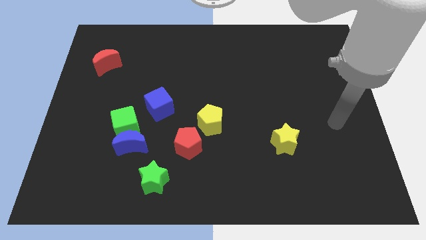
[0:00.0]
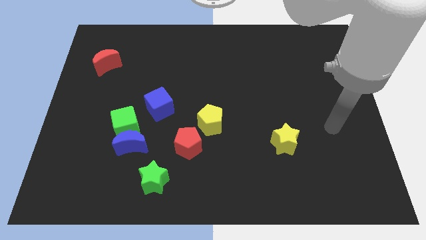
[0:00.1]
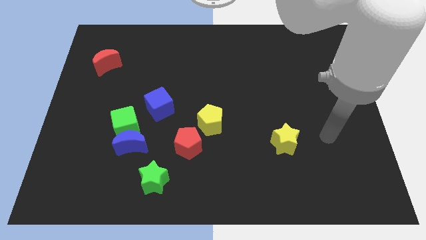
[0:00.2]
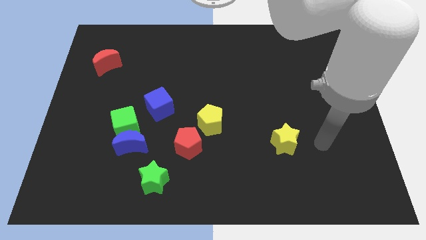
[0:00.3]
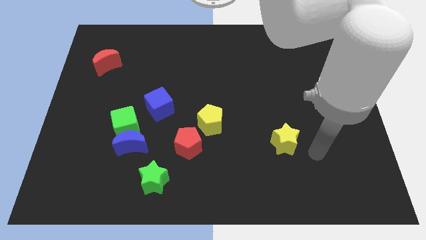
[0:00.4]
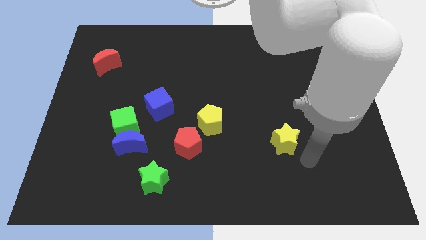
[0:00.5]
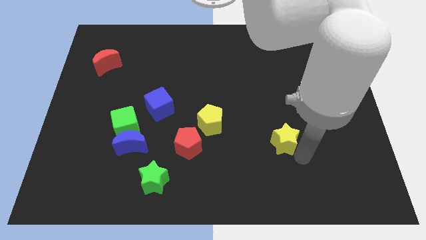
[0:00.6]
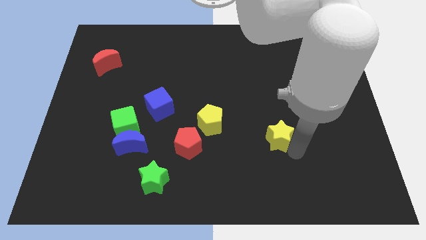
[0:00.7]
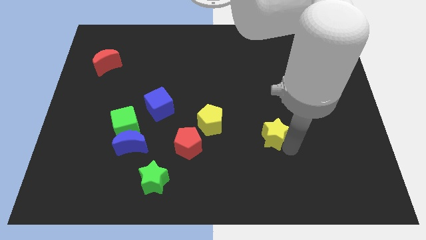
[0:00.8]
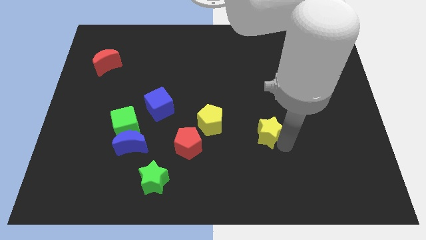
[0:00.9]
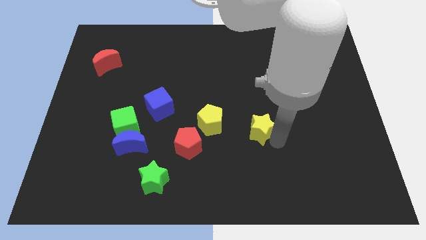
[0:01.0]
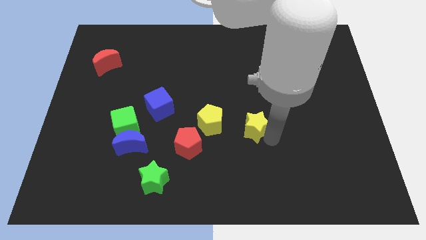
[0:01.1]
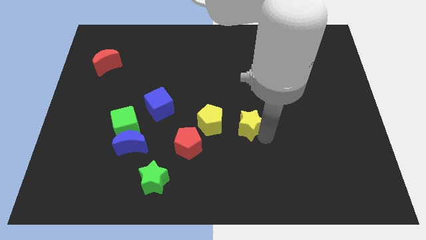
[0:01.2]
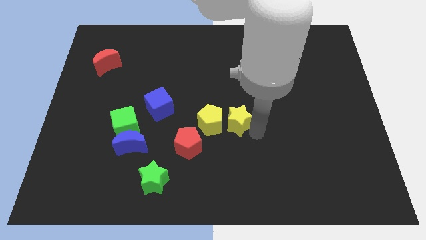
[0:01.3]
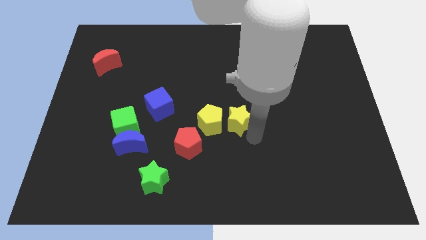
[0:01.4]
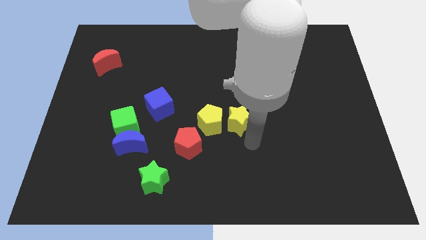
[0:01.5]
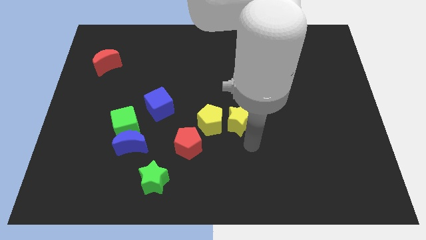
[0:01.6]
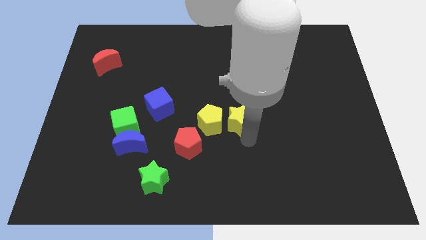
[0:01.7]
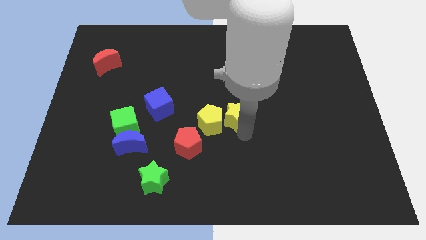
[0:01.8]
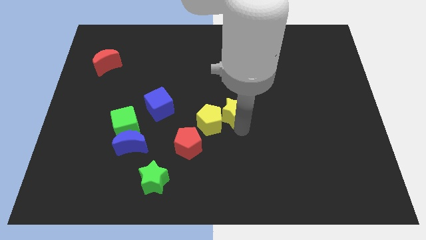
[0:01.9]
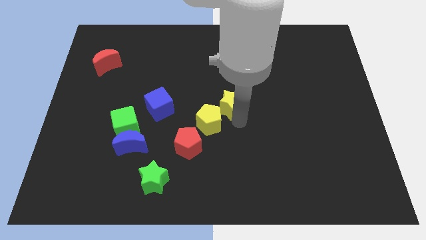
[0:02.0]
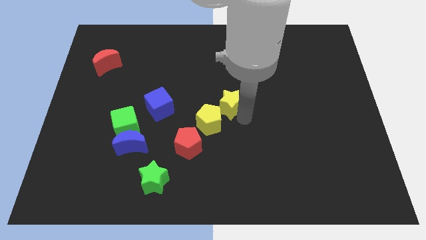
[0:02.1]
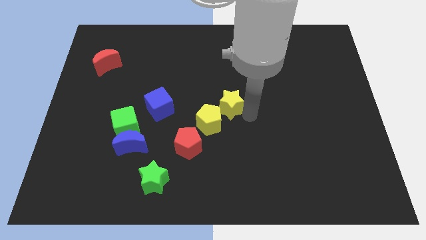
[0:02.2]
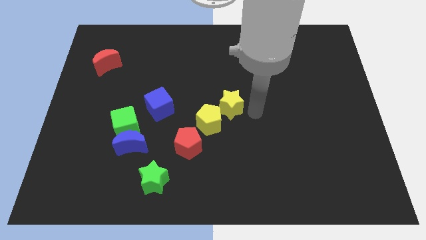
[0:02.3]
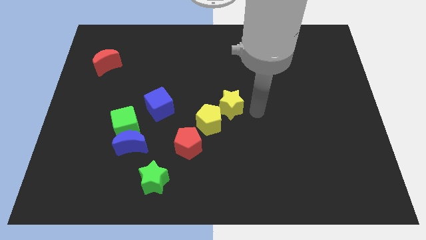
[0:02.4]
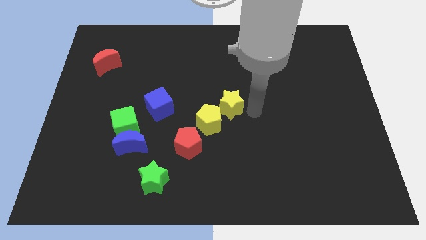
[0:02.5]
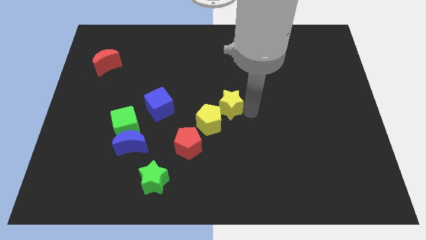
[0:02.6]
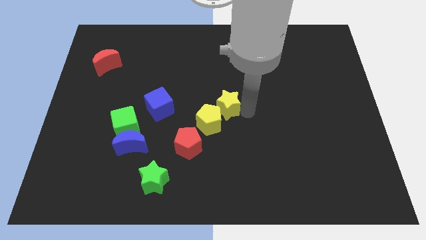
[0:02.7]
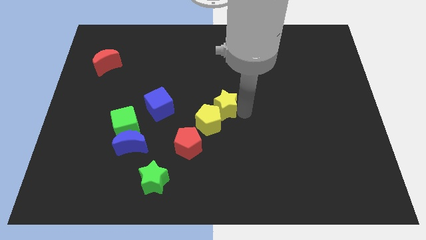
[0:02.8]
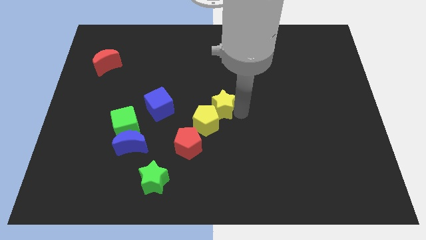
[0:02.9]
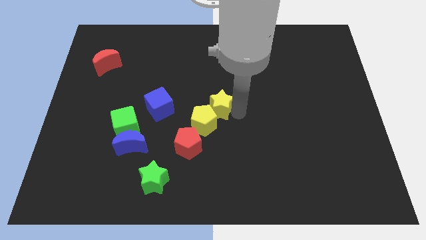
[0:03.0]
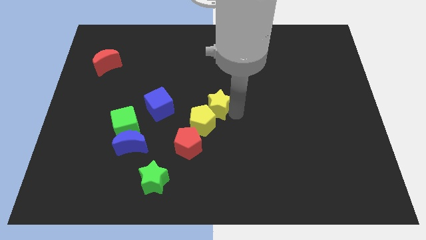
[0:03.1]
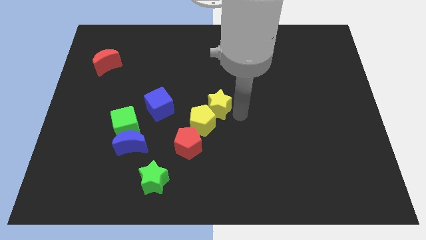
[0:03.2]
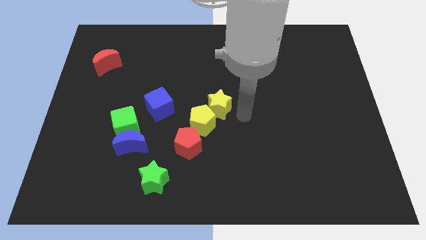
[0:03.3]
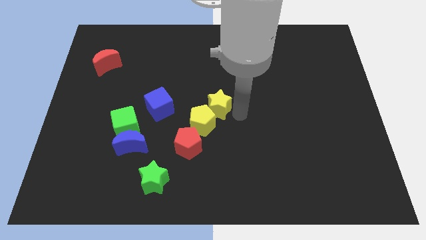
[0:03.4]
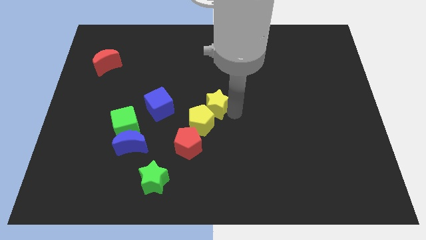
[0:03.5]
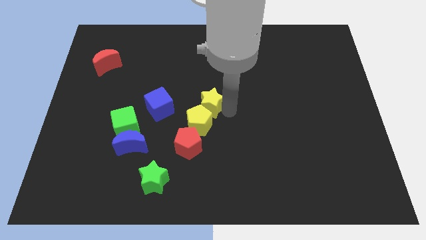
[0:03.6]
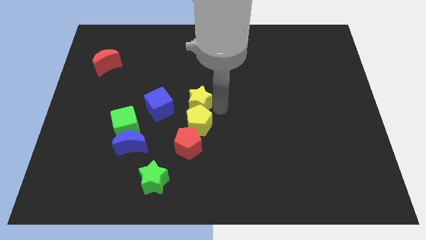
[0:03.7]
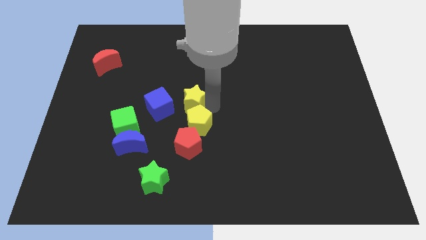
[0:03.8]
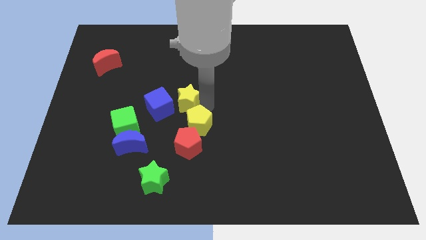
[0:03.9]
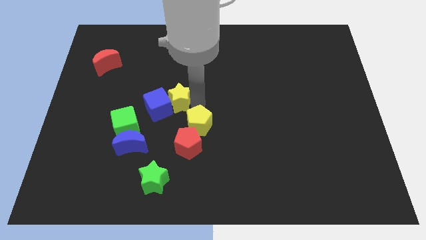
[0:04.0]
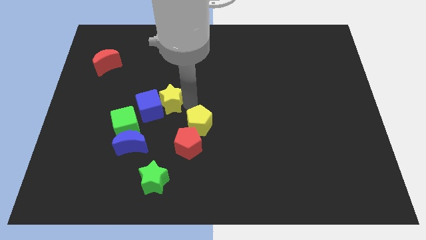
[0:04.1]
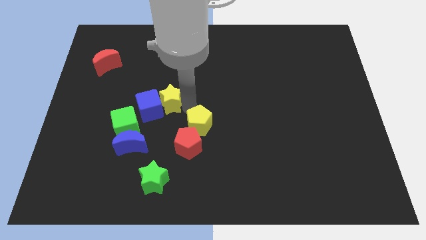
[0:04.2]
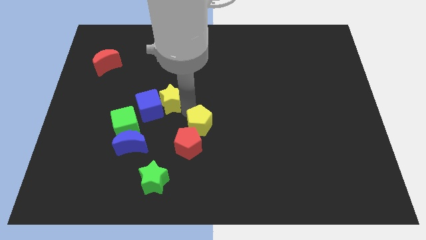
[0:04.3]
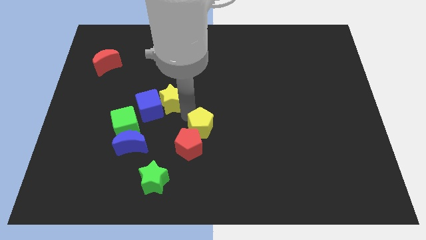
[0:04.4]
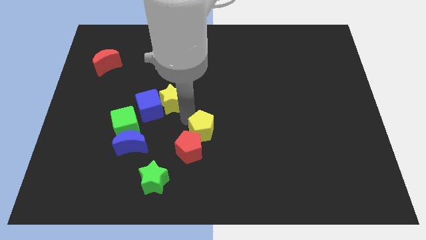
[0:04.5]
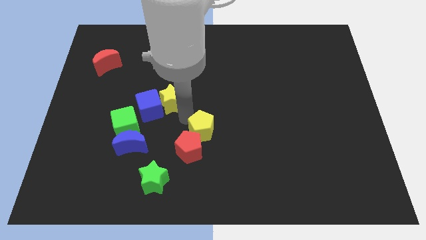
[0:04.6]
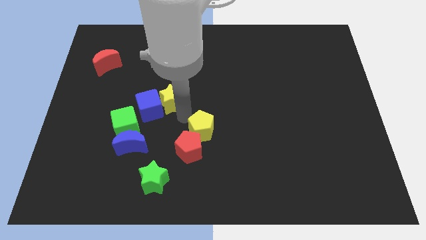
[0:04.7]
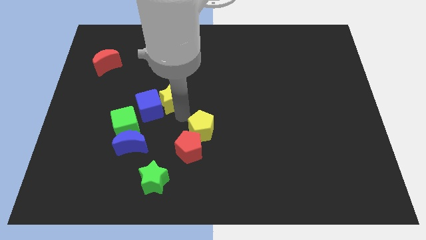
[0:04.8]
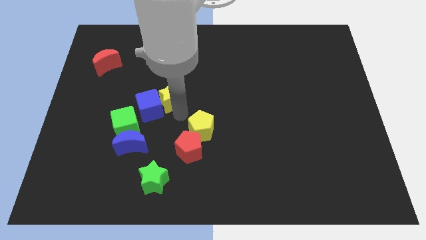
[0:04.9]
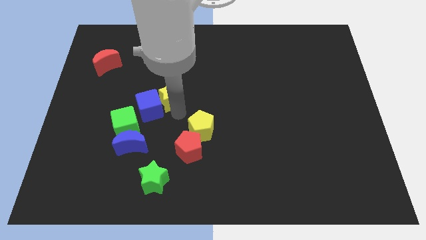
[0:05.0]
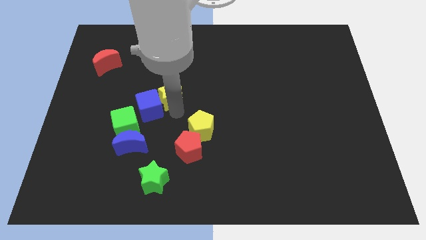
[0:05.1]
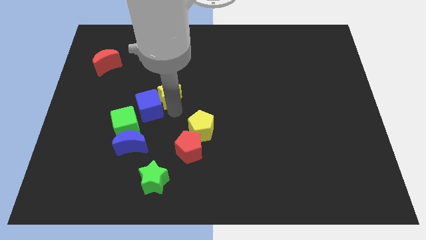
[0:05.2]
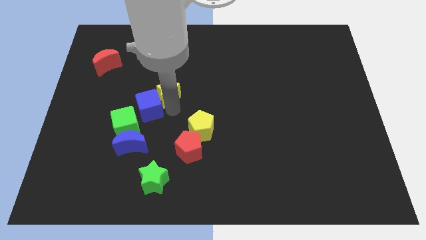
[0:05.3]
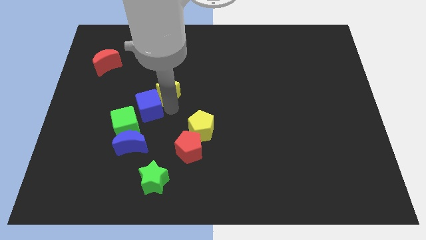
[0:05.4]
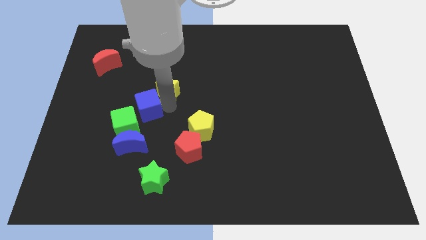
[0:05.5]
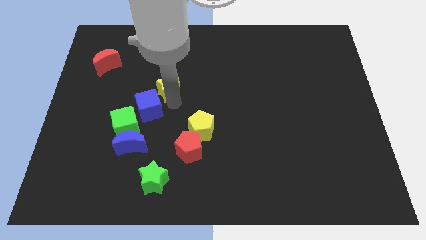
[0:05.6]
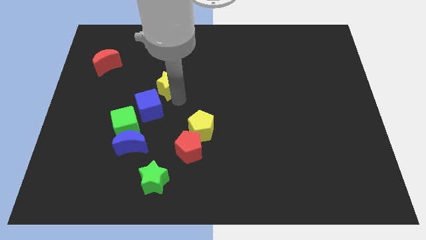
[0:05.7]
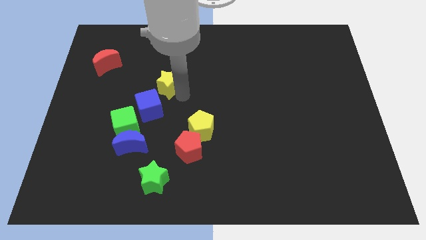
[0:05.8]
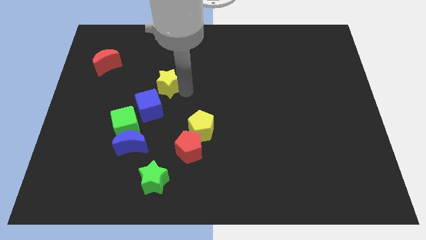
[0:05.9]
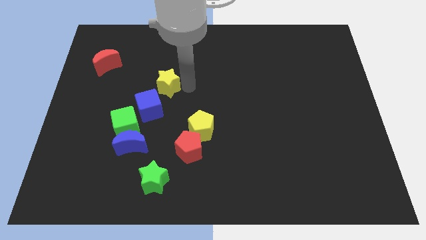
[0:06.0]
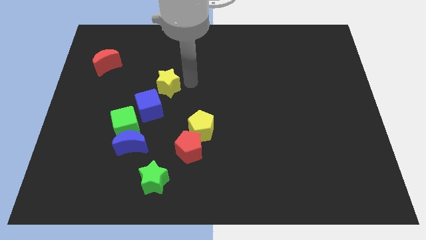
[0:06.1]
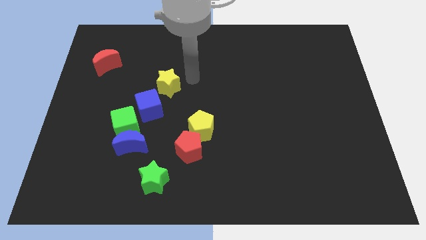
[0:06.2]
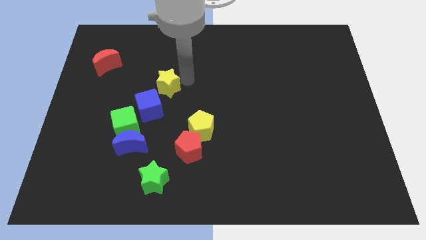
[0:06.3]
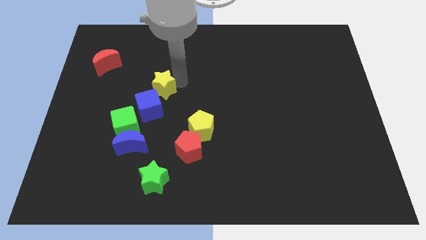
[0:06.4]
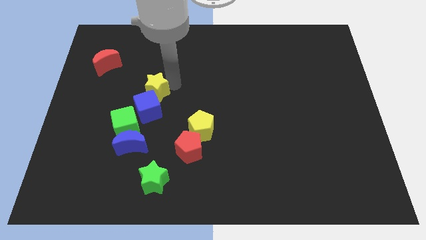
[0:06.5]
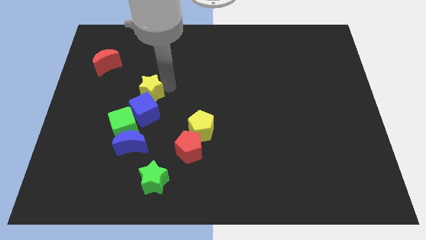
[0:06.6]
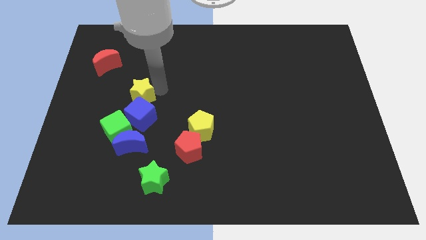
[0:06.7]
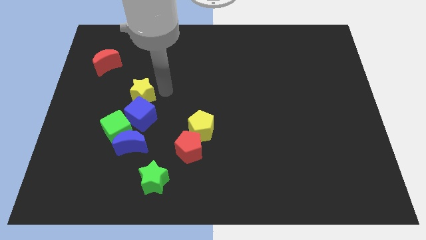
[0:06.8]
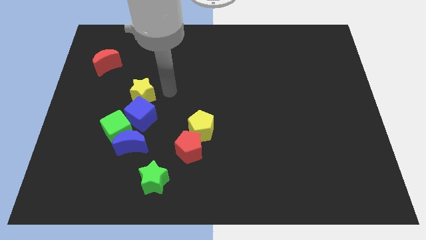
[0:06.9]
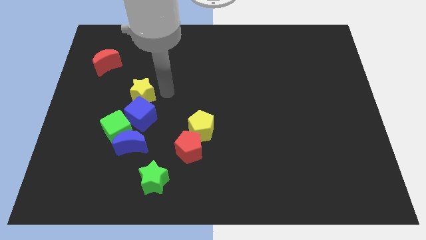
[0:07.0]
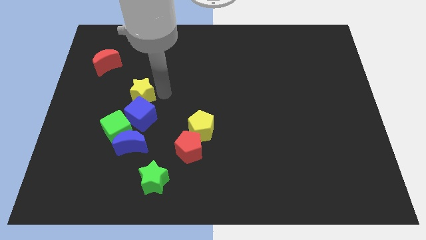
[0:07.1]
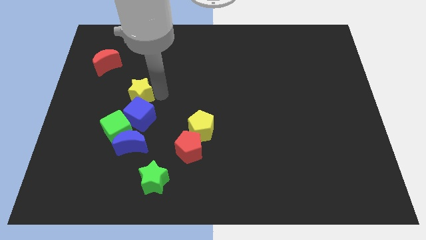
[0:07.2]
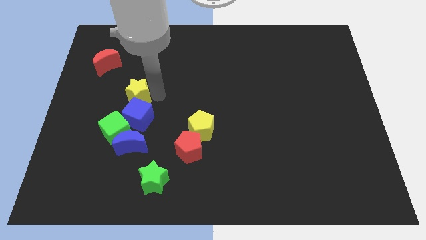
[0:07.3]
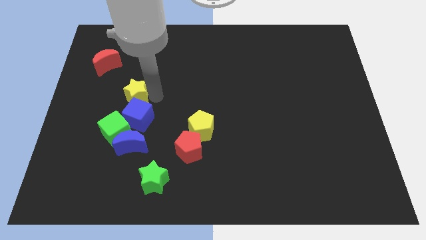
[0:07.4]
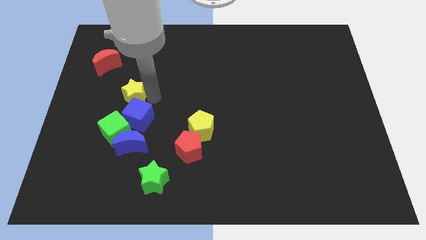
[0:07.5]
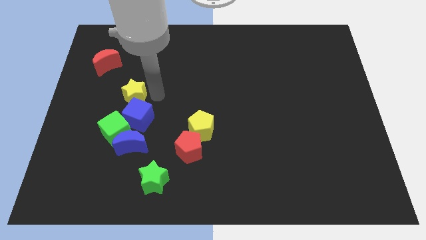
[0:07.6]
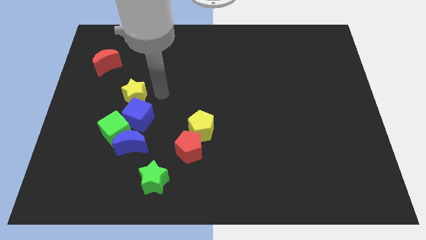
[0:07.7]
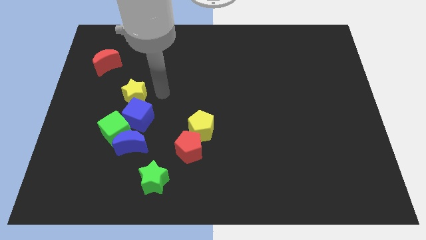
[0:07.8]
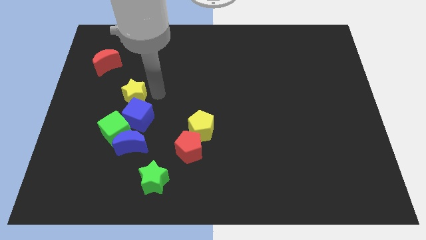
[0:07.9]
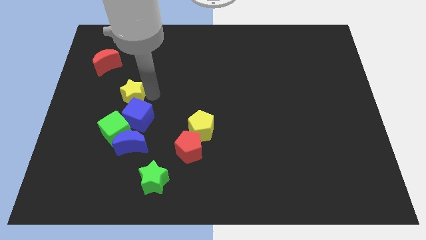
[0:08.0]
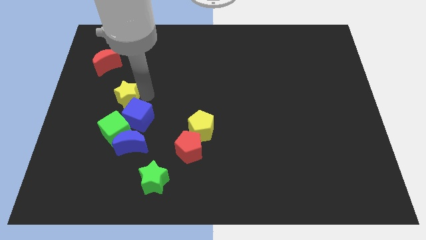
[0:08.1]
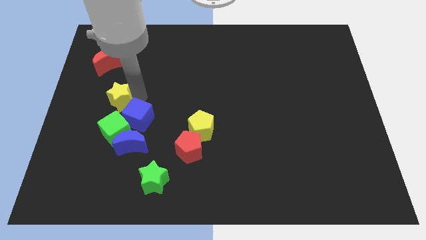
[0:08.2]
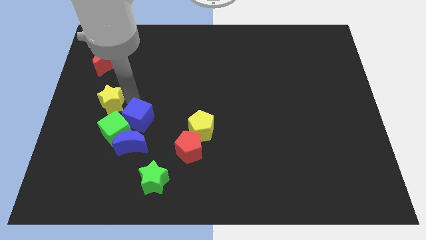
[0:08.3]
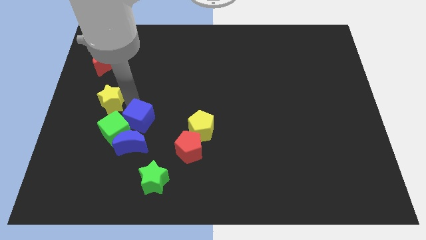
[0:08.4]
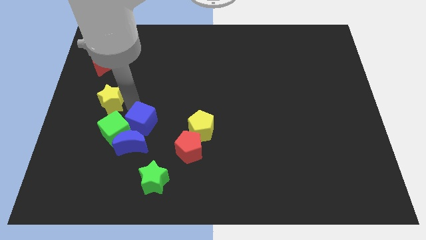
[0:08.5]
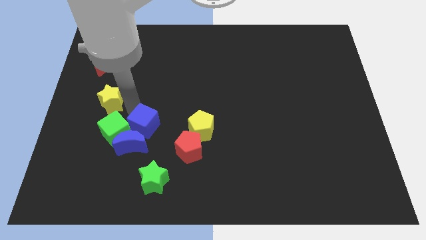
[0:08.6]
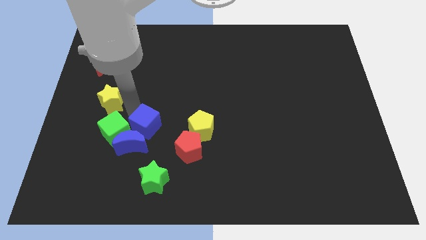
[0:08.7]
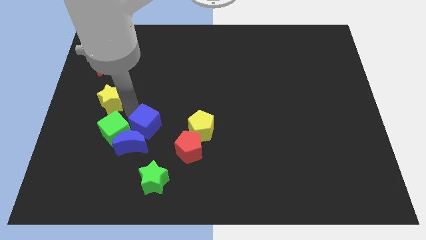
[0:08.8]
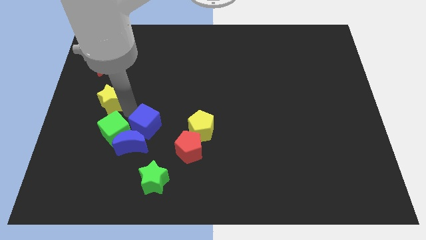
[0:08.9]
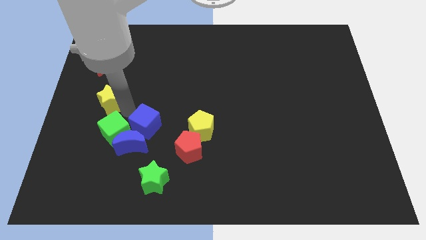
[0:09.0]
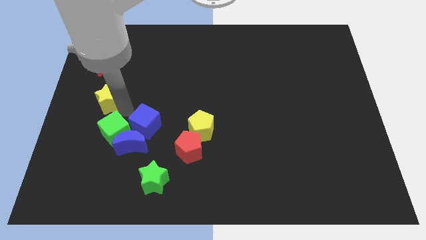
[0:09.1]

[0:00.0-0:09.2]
put the yellow star to the center left
